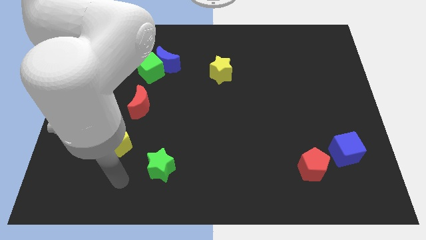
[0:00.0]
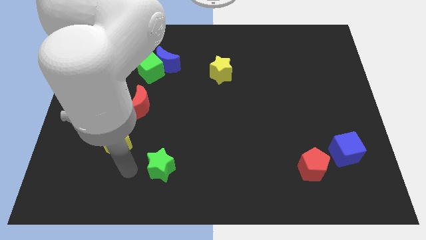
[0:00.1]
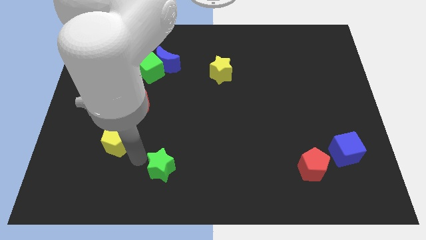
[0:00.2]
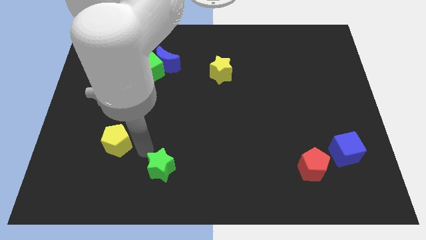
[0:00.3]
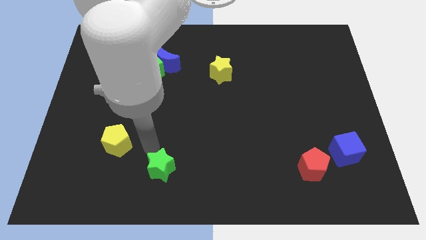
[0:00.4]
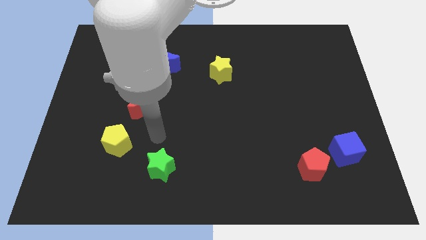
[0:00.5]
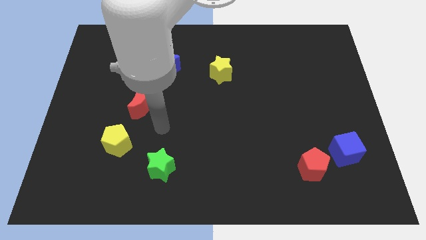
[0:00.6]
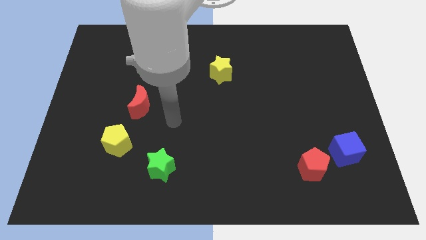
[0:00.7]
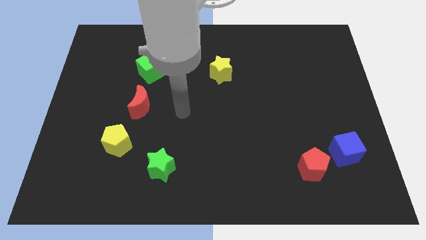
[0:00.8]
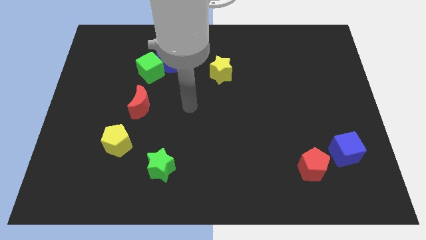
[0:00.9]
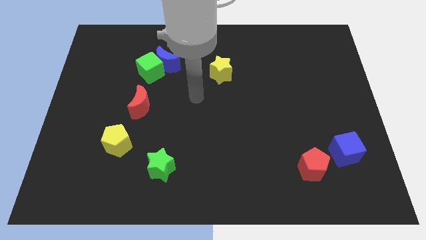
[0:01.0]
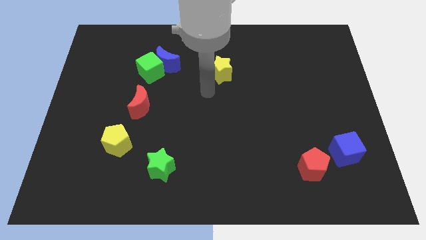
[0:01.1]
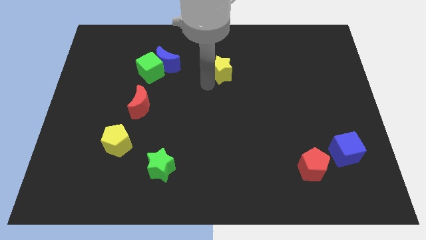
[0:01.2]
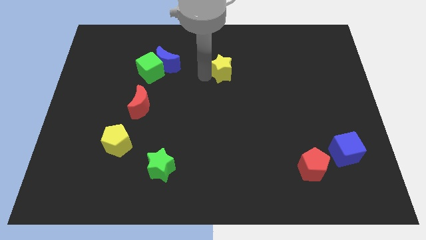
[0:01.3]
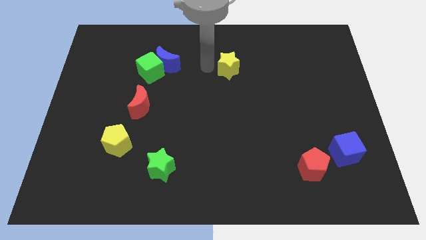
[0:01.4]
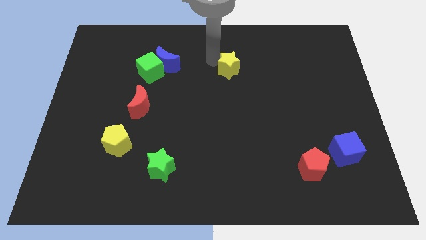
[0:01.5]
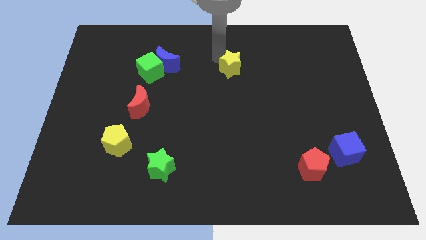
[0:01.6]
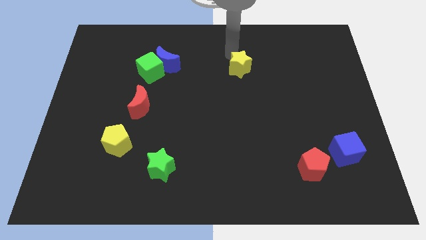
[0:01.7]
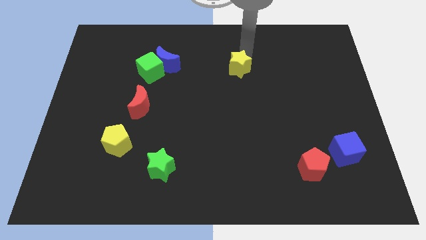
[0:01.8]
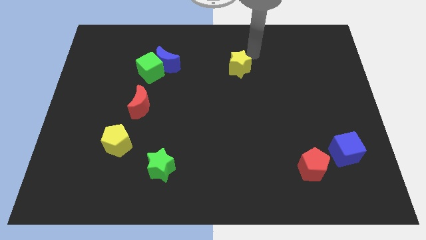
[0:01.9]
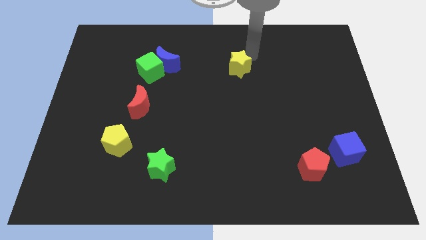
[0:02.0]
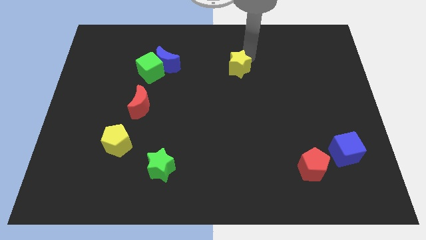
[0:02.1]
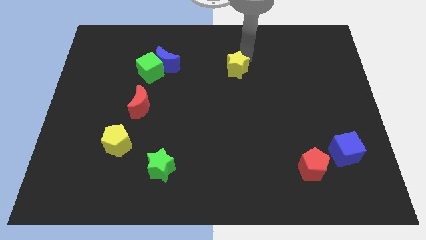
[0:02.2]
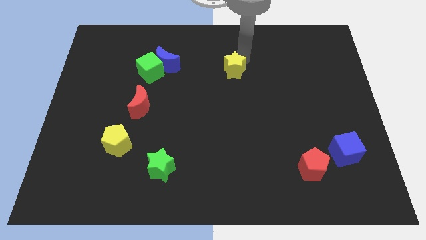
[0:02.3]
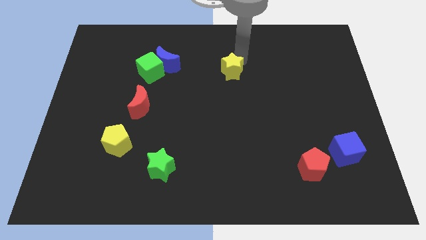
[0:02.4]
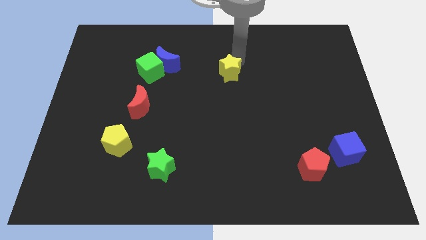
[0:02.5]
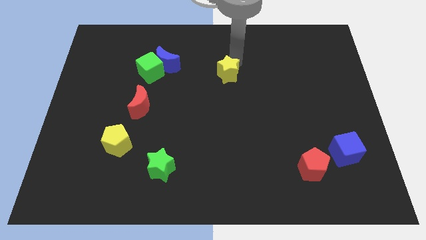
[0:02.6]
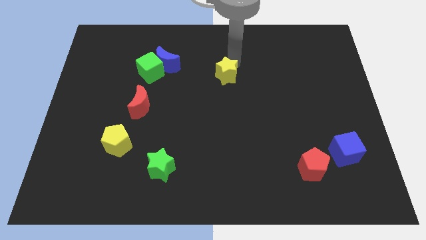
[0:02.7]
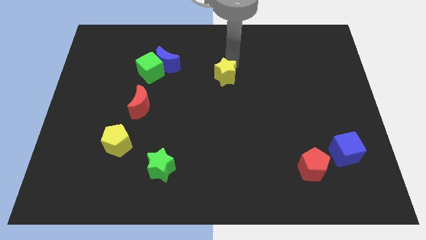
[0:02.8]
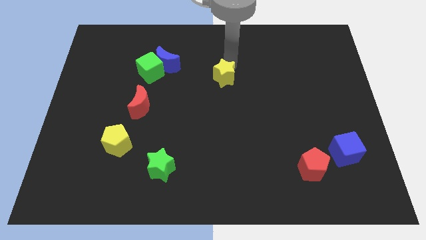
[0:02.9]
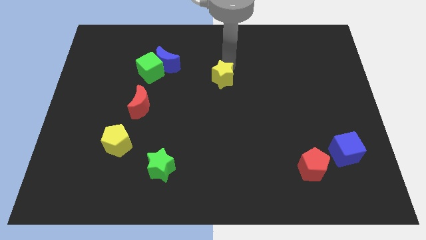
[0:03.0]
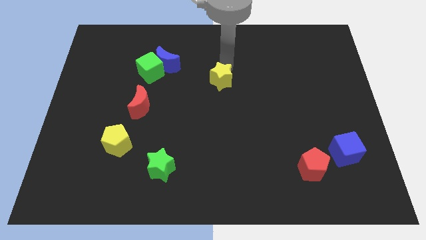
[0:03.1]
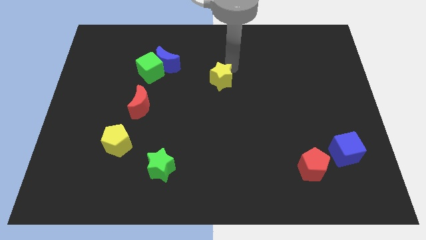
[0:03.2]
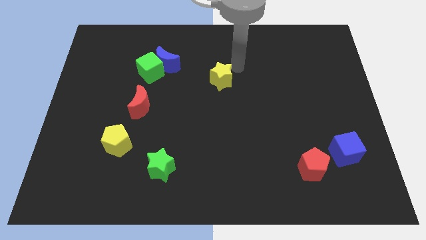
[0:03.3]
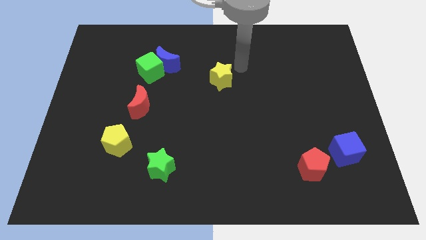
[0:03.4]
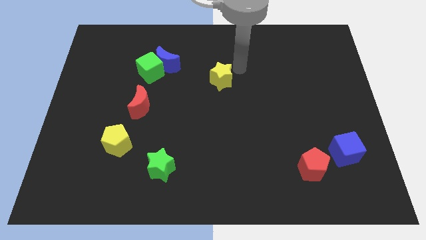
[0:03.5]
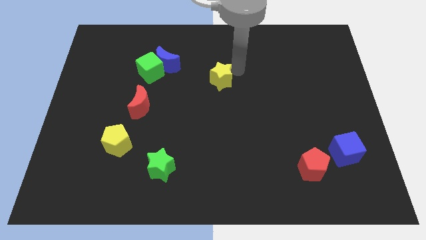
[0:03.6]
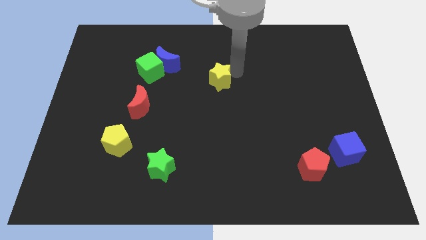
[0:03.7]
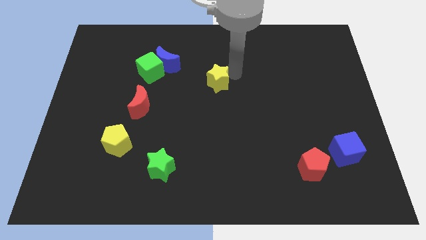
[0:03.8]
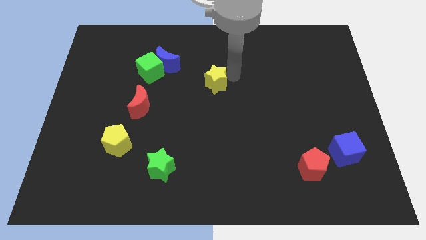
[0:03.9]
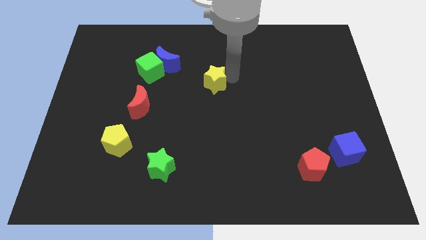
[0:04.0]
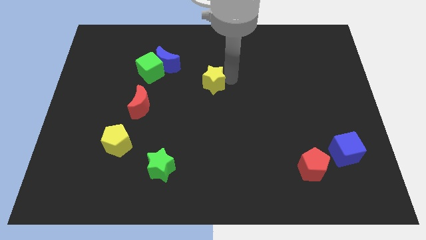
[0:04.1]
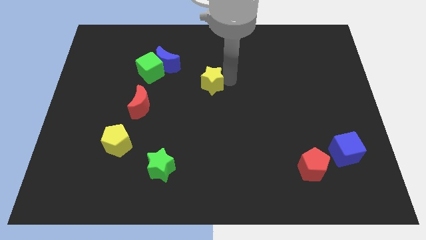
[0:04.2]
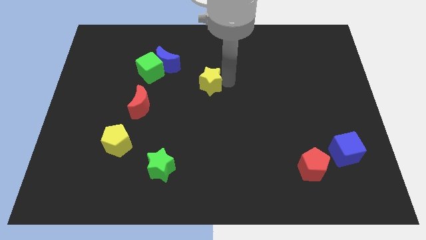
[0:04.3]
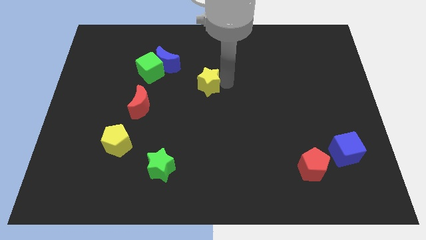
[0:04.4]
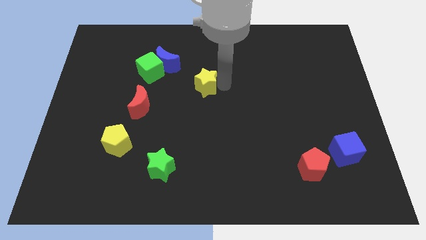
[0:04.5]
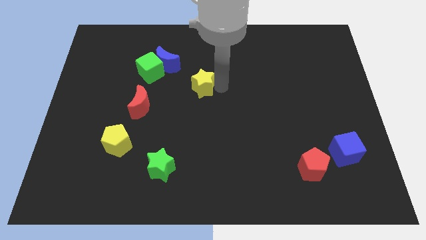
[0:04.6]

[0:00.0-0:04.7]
slide the yellow star down and left diagonally slightly

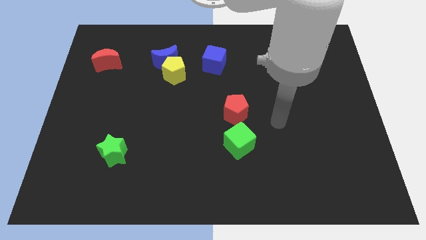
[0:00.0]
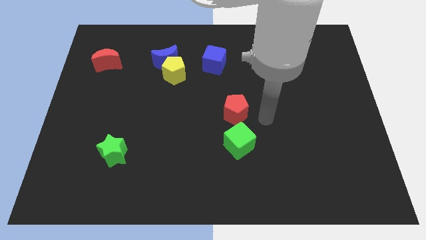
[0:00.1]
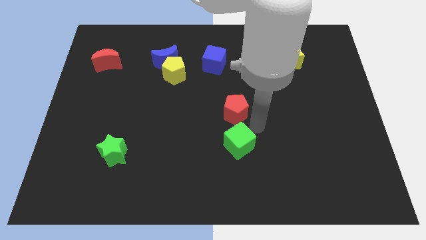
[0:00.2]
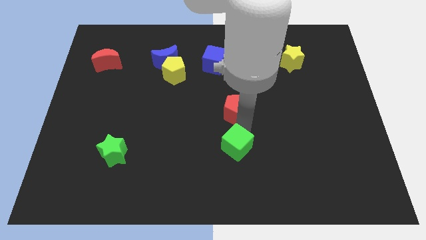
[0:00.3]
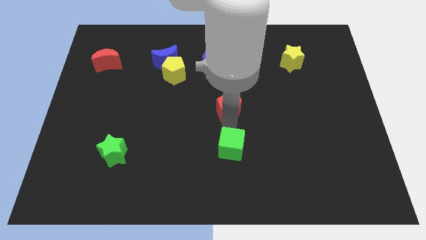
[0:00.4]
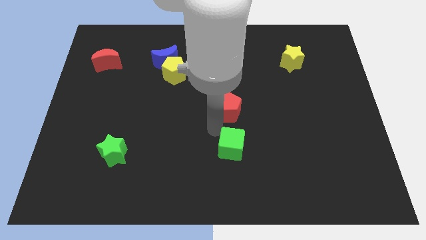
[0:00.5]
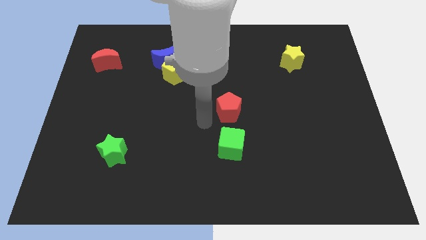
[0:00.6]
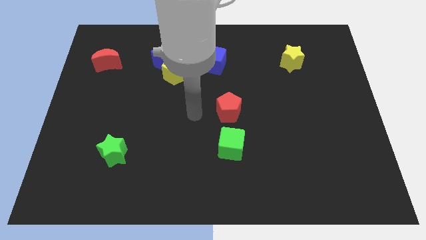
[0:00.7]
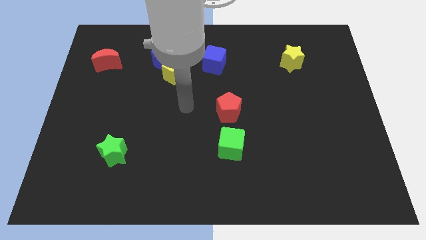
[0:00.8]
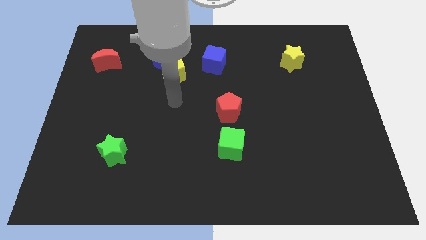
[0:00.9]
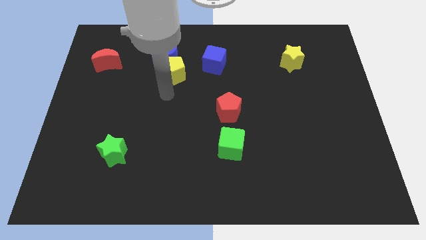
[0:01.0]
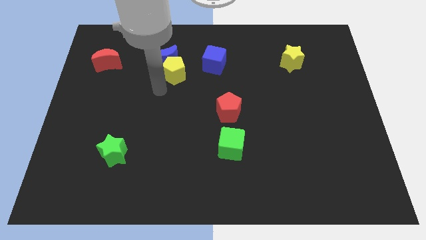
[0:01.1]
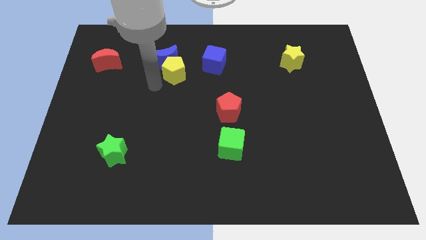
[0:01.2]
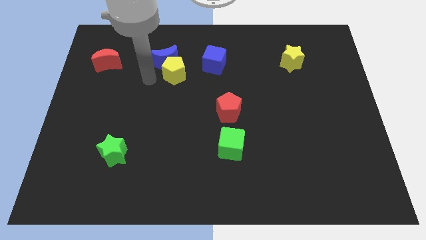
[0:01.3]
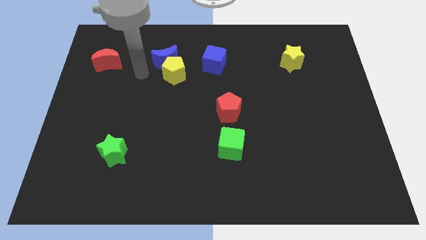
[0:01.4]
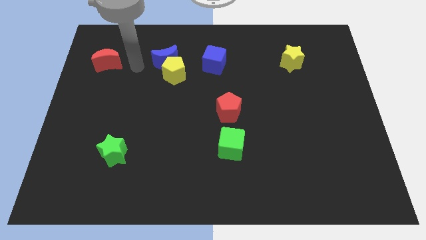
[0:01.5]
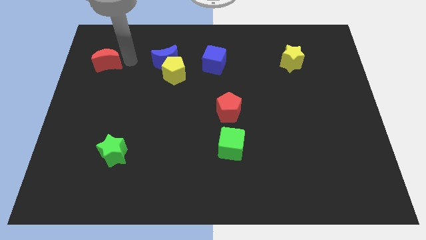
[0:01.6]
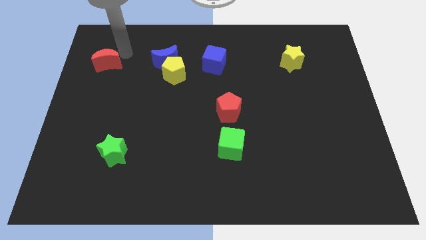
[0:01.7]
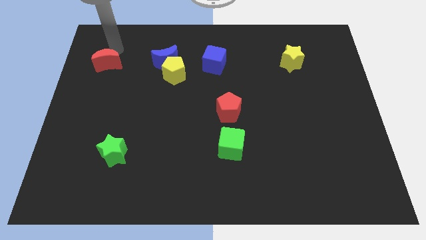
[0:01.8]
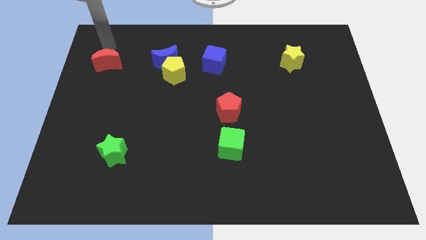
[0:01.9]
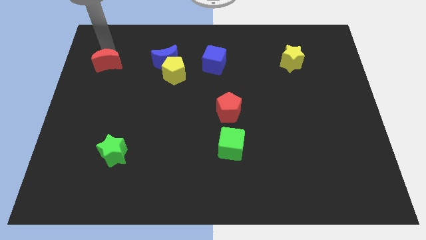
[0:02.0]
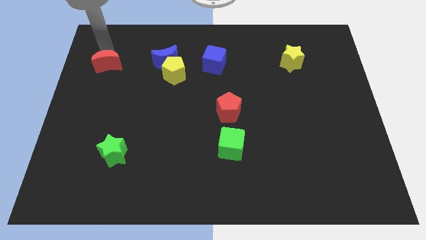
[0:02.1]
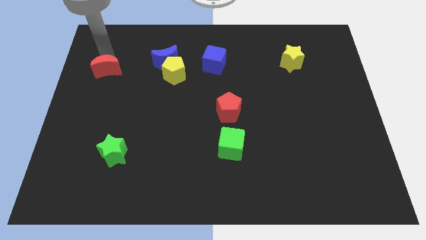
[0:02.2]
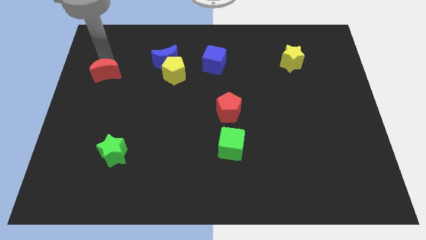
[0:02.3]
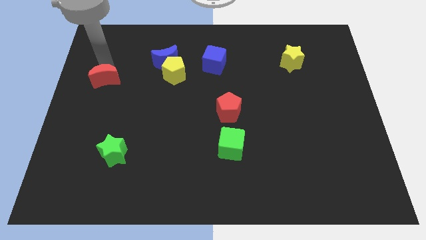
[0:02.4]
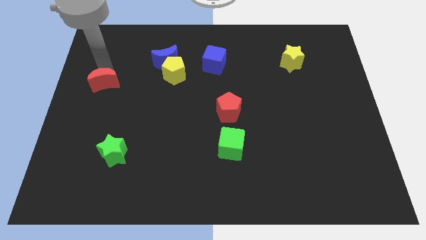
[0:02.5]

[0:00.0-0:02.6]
move the red moon somewhat down

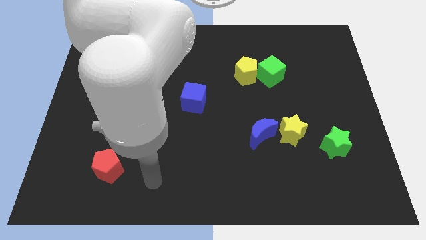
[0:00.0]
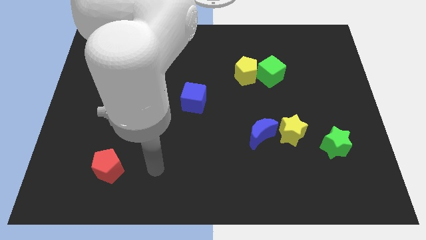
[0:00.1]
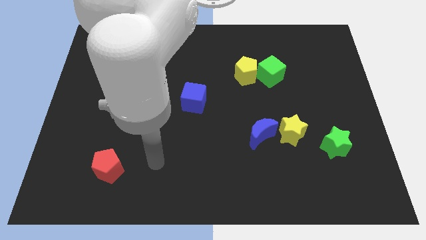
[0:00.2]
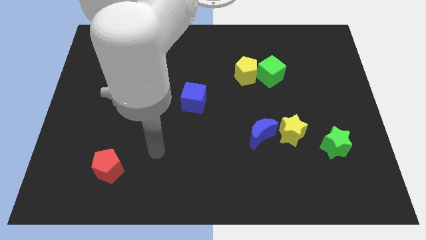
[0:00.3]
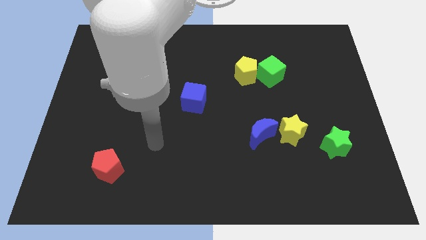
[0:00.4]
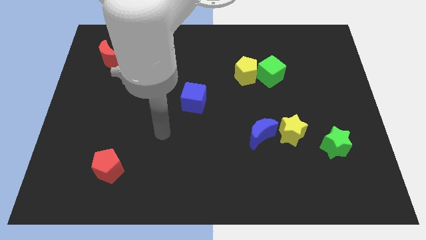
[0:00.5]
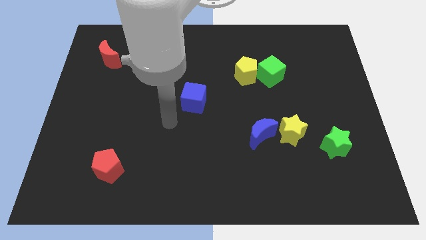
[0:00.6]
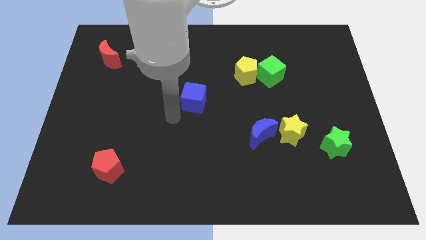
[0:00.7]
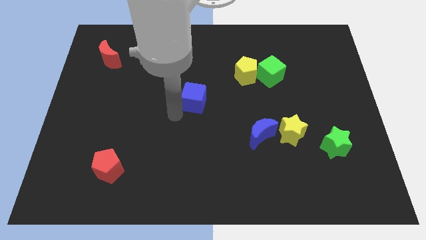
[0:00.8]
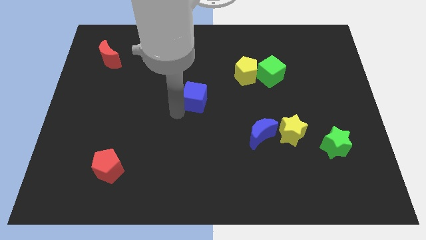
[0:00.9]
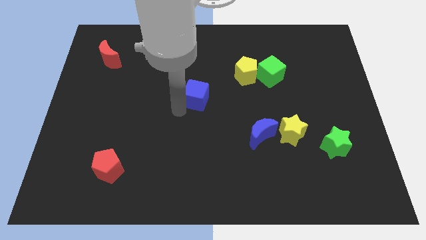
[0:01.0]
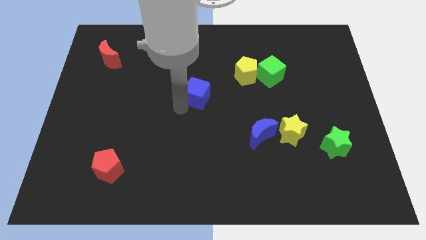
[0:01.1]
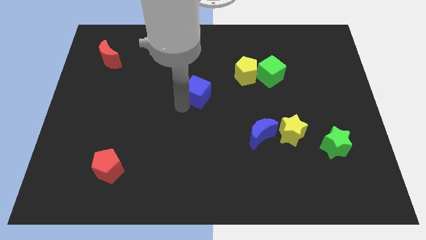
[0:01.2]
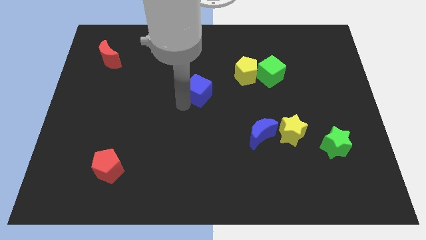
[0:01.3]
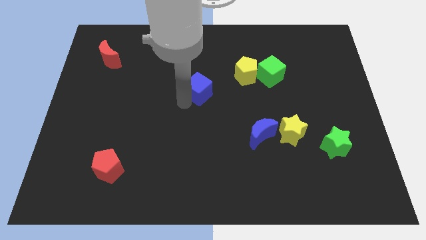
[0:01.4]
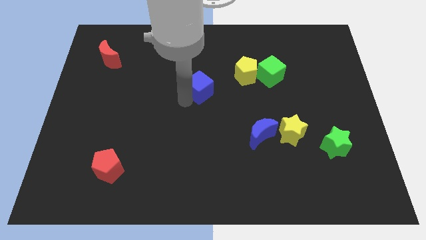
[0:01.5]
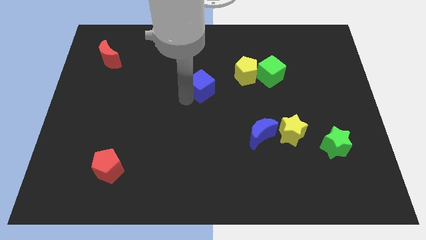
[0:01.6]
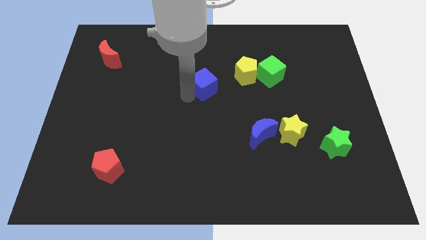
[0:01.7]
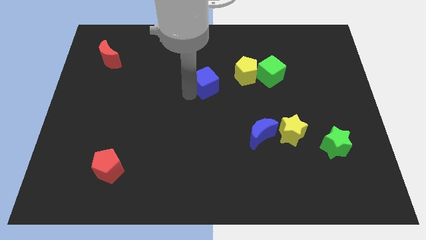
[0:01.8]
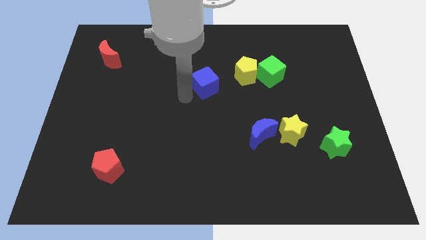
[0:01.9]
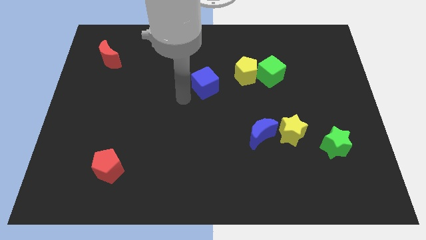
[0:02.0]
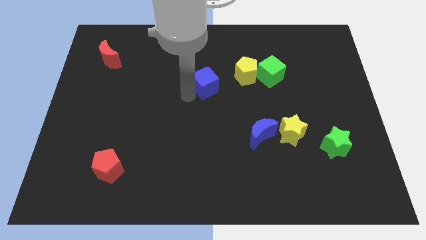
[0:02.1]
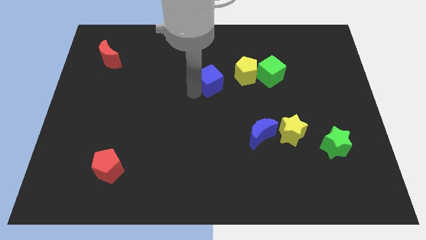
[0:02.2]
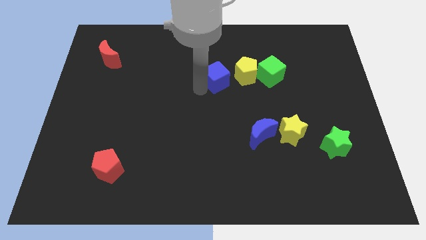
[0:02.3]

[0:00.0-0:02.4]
move the blue cube up and right a bit
